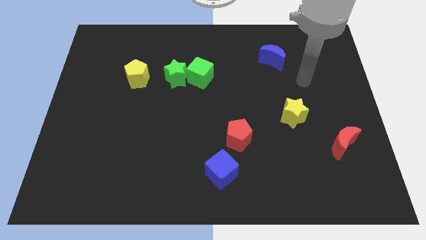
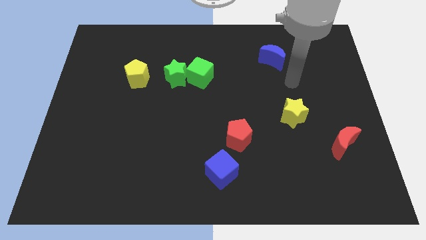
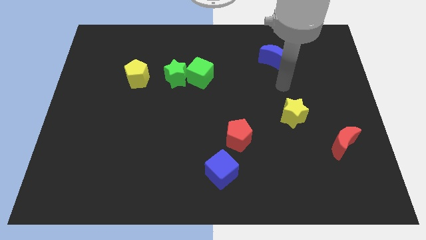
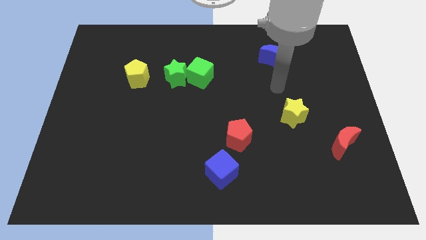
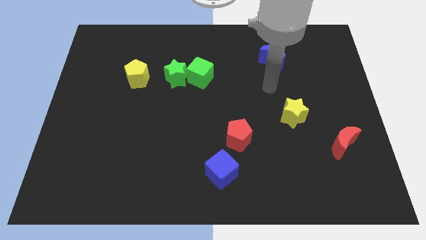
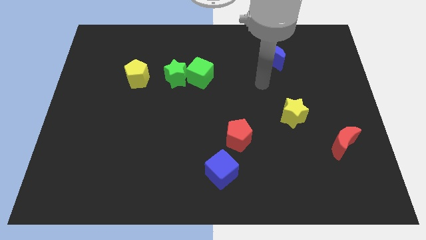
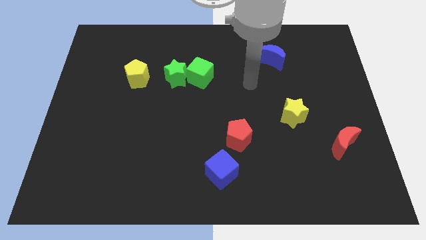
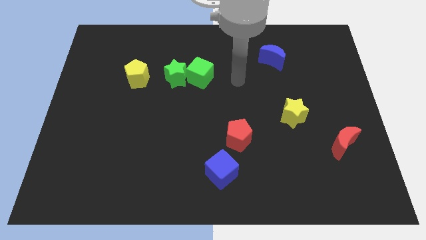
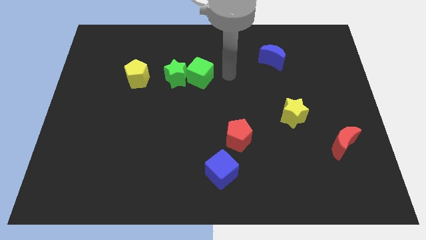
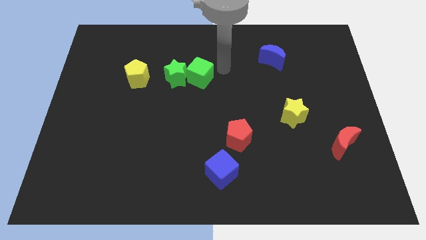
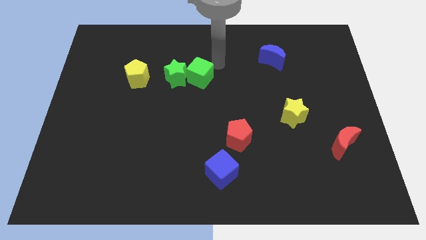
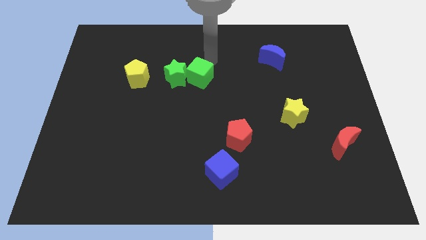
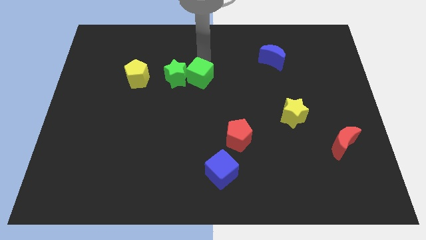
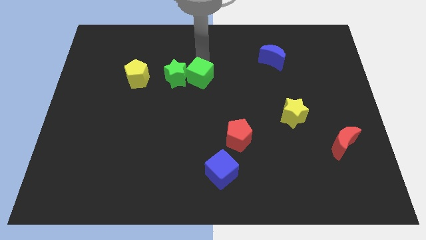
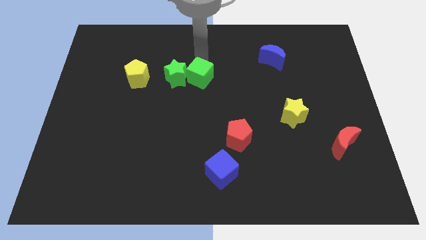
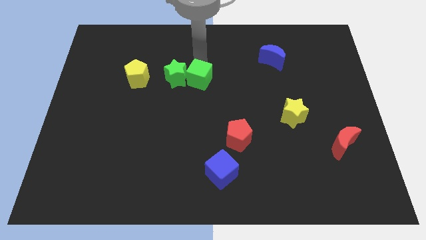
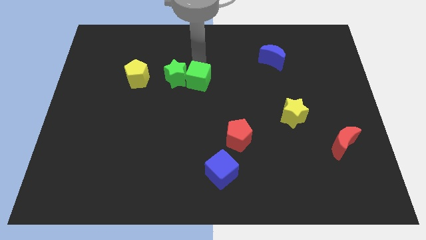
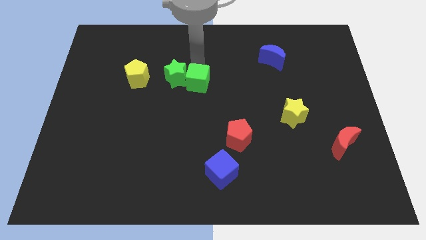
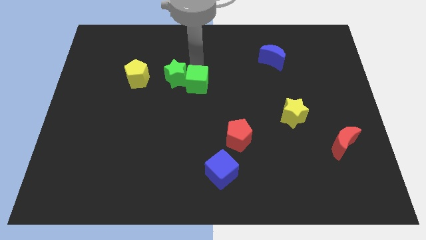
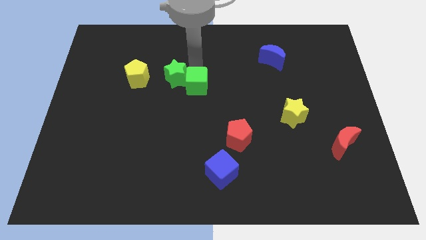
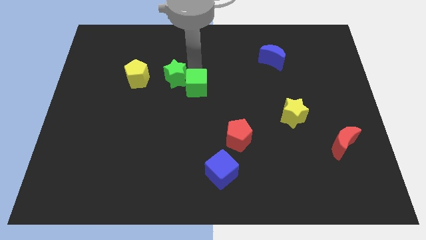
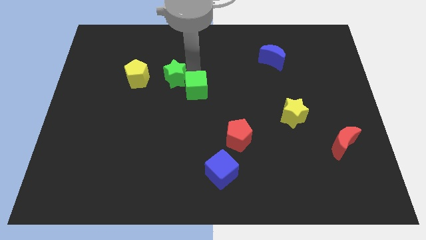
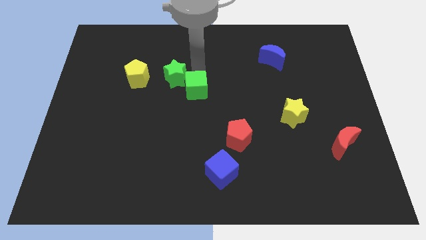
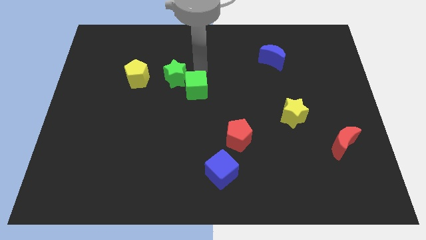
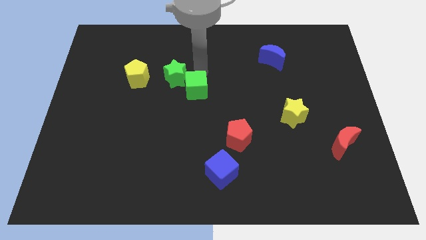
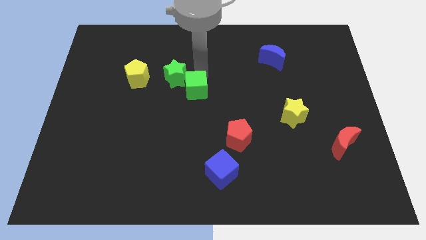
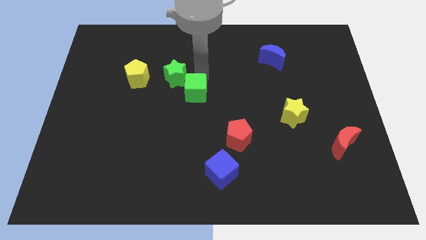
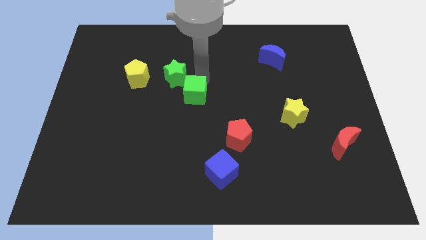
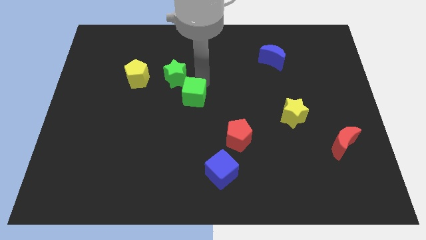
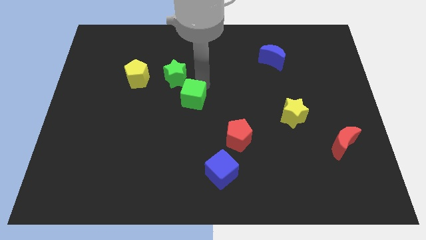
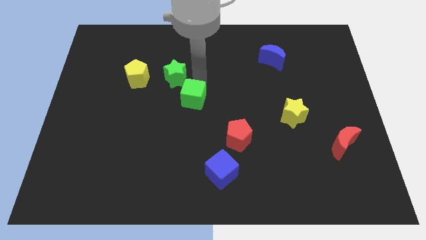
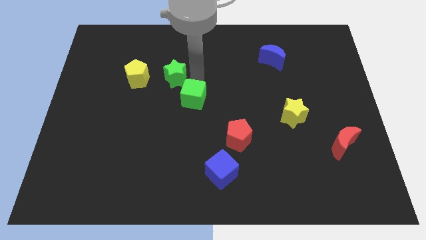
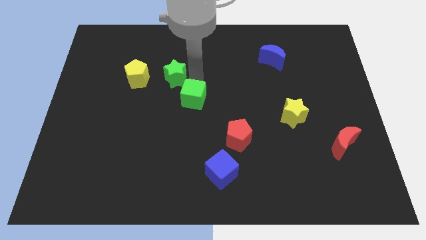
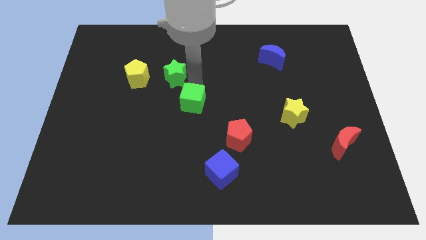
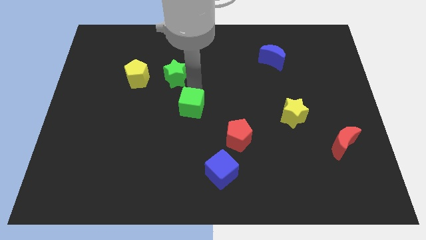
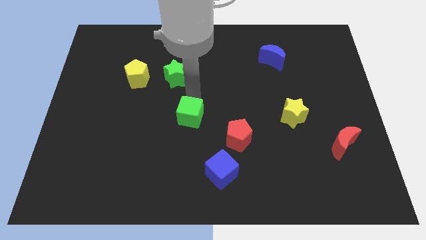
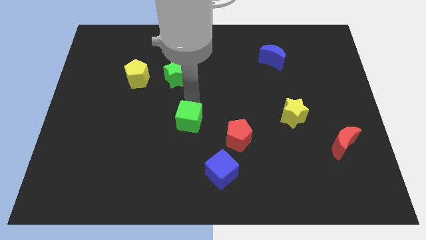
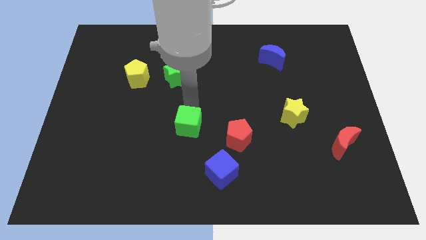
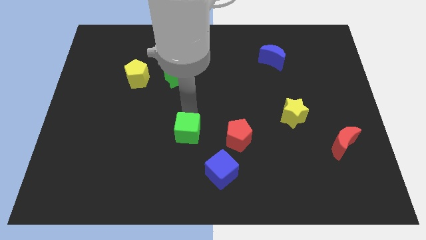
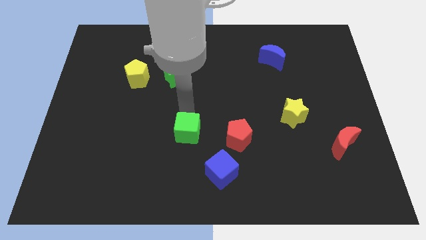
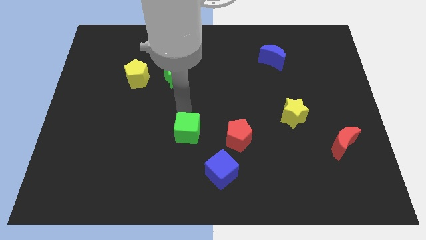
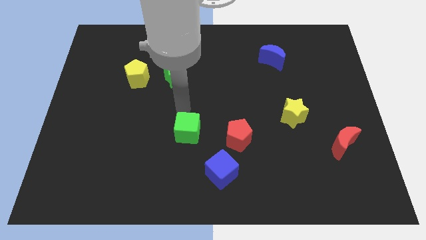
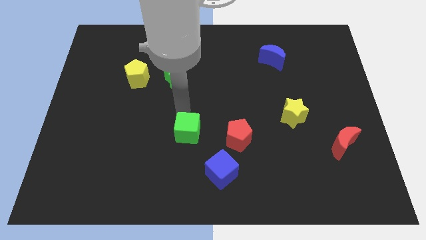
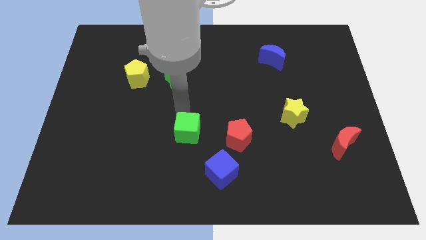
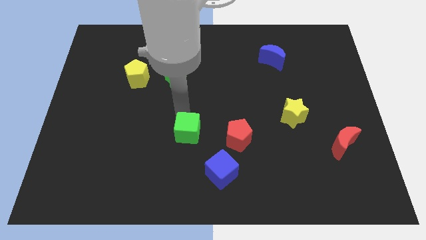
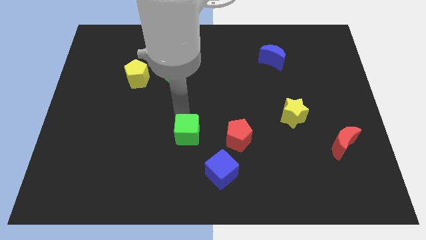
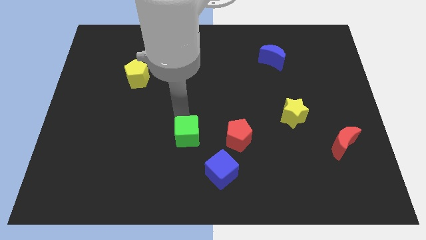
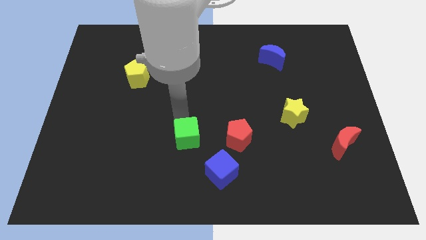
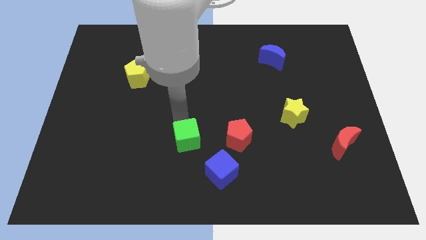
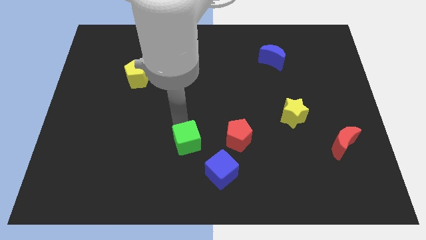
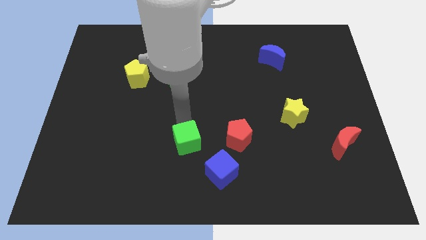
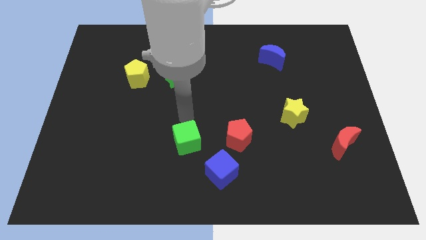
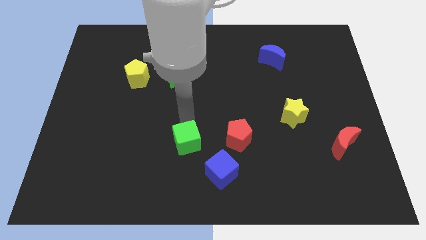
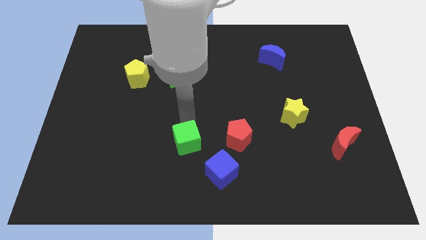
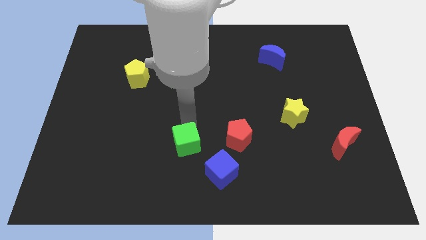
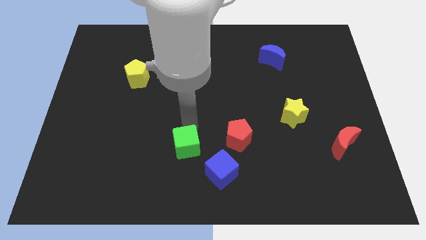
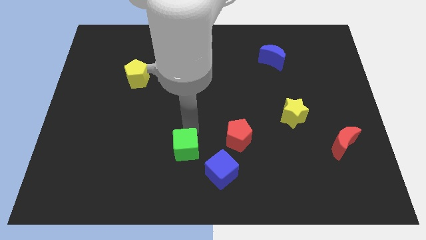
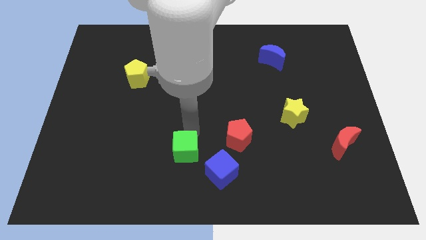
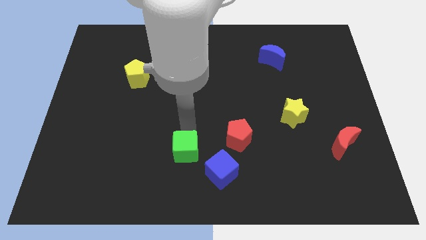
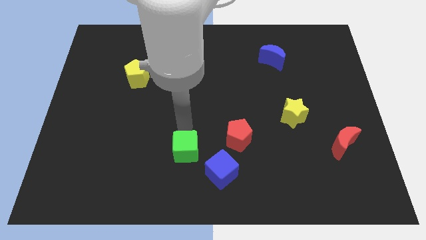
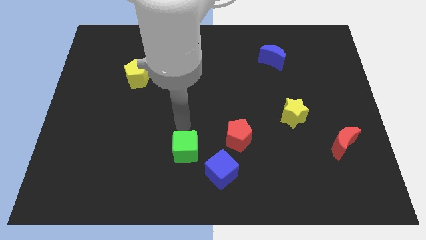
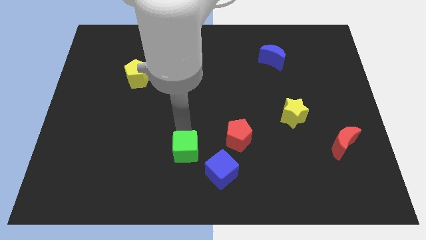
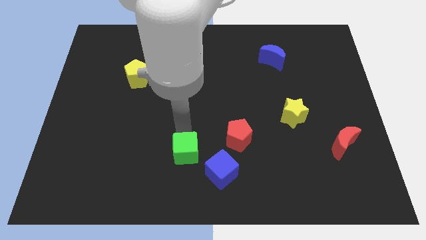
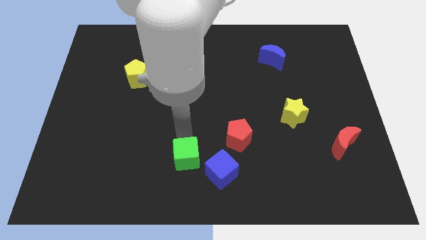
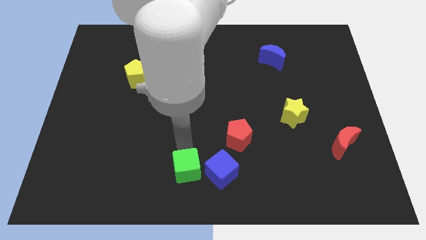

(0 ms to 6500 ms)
slide the green cube to the bottom
